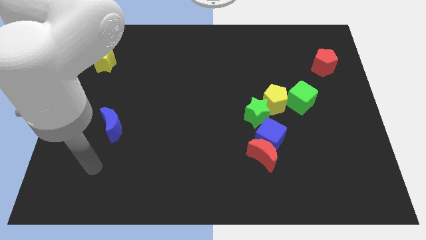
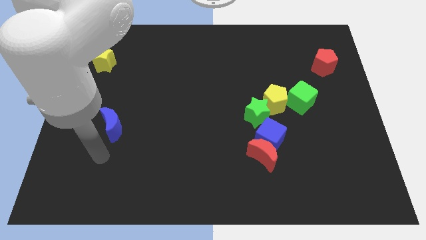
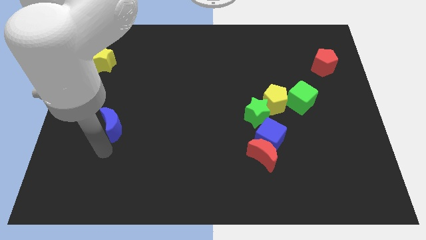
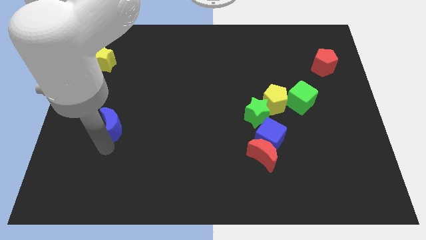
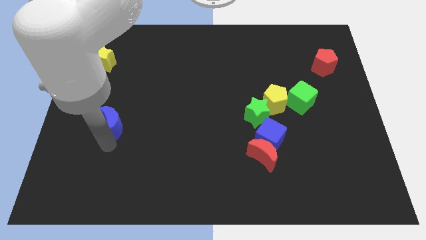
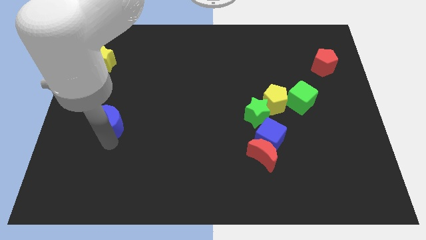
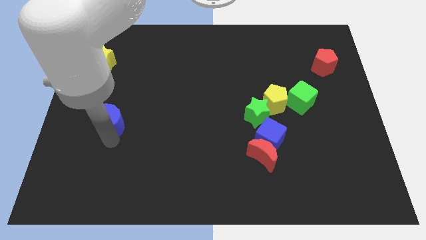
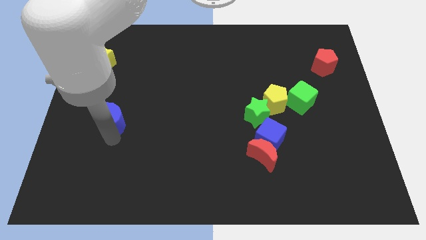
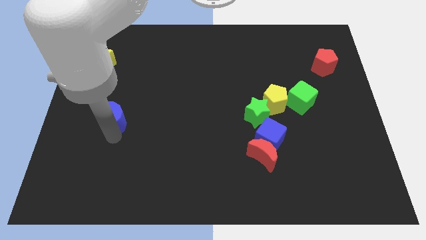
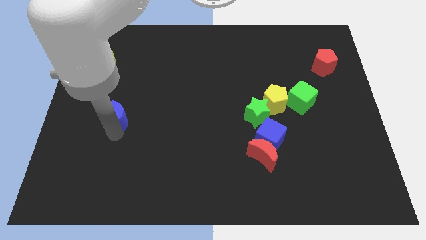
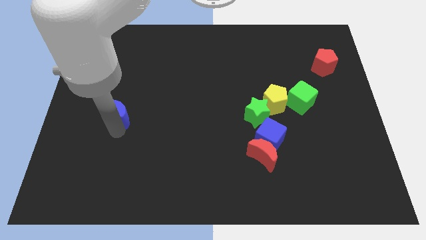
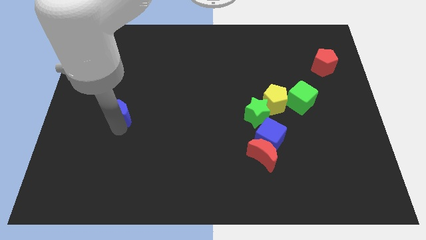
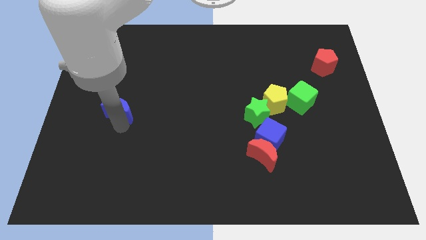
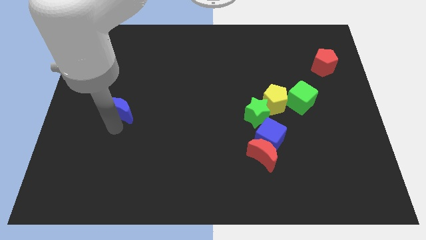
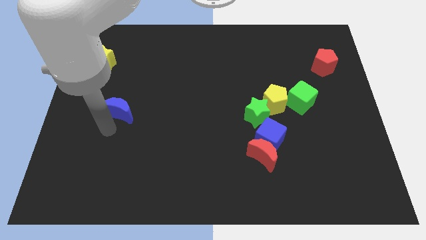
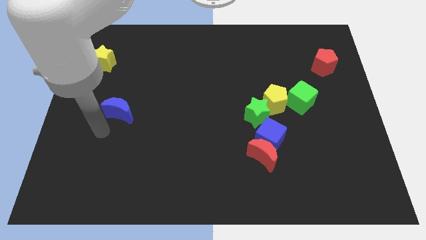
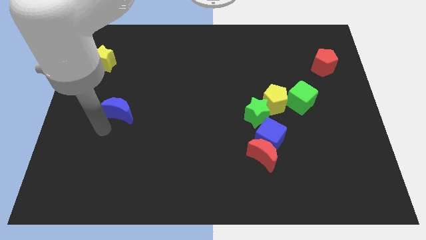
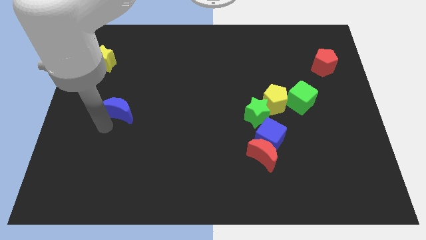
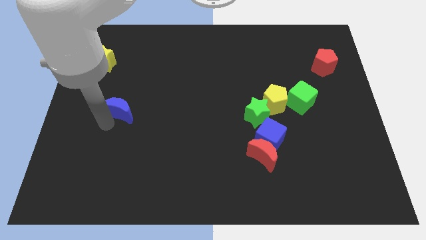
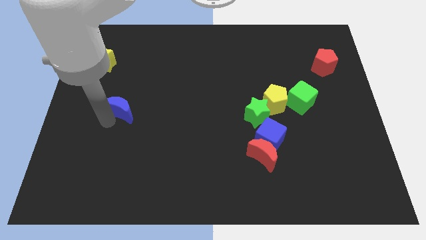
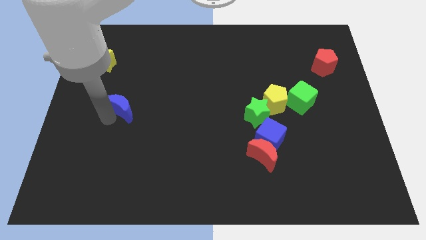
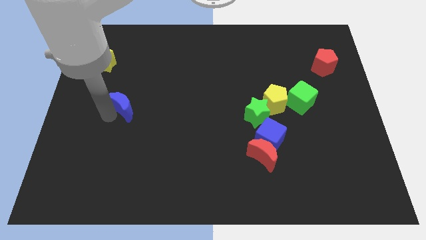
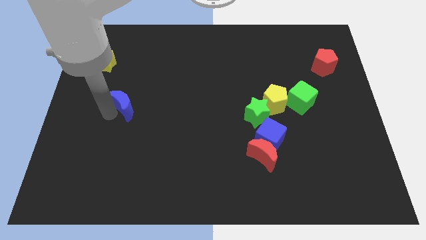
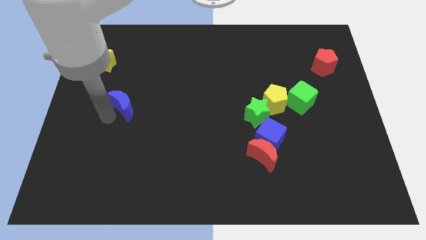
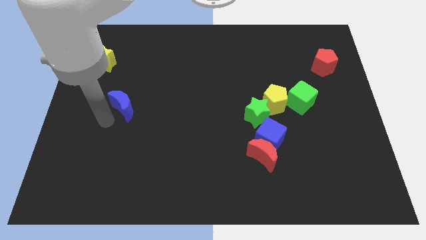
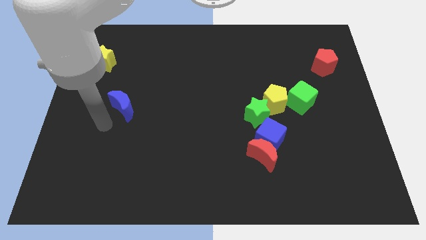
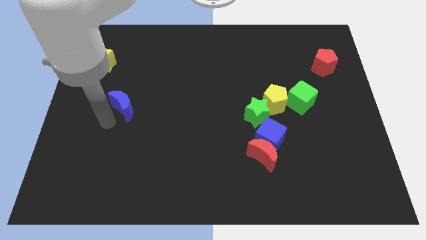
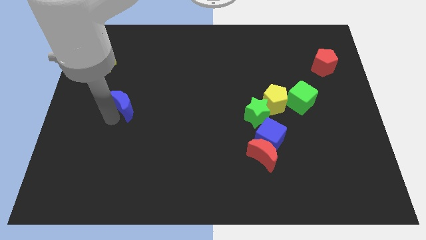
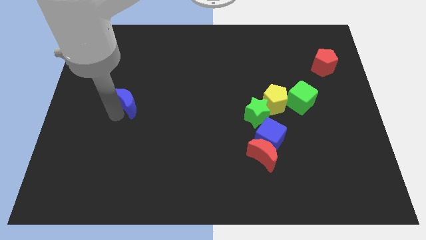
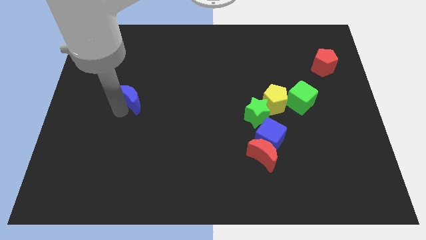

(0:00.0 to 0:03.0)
slightly push the blue moon up and to the right

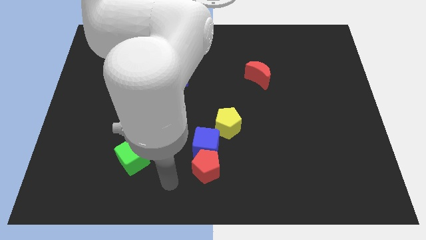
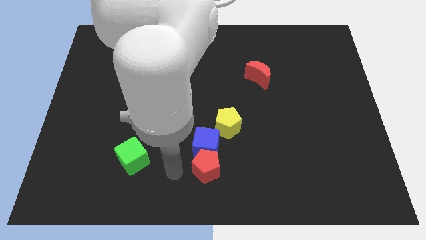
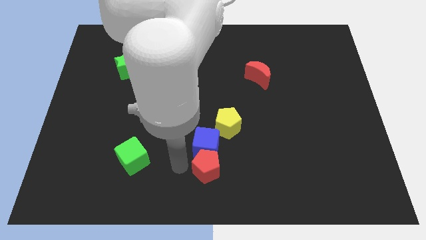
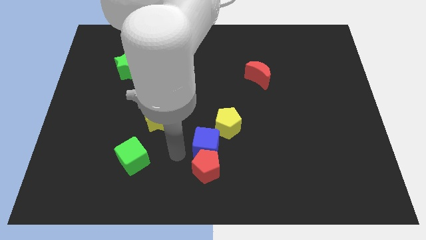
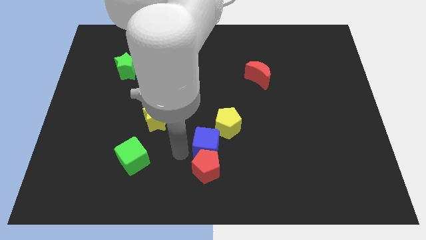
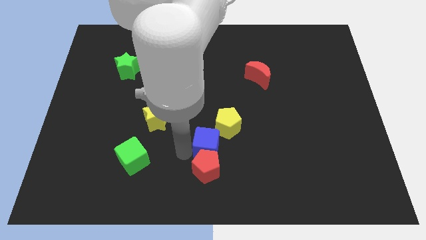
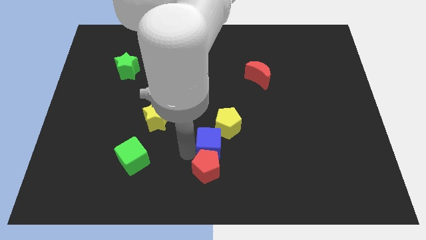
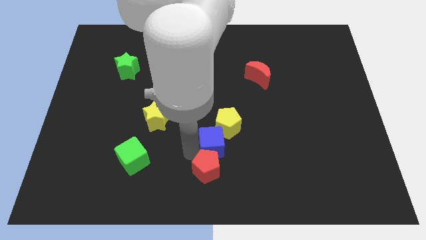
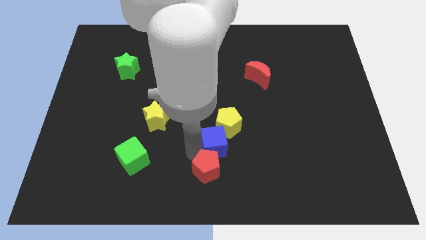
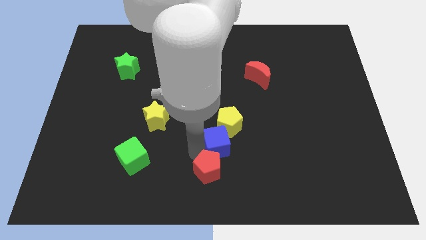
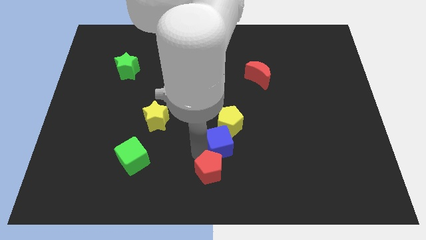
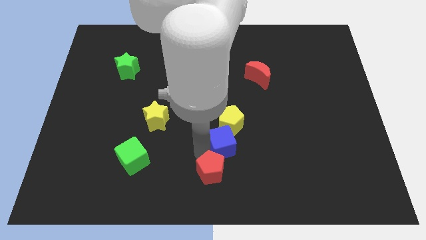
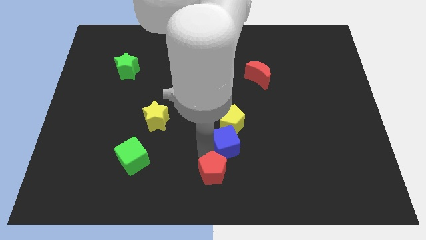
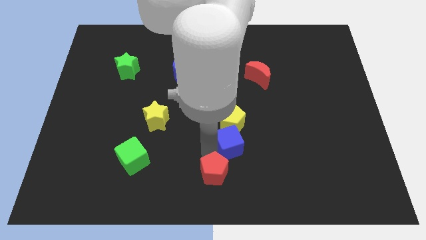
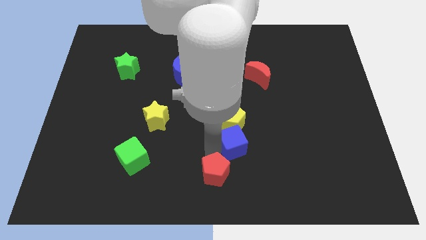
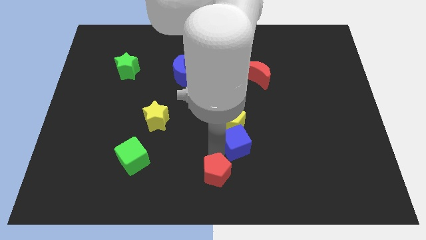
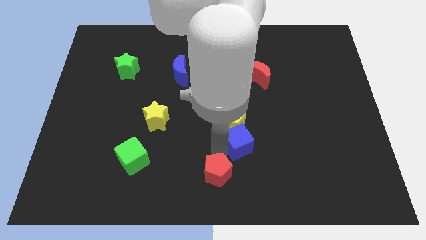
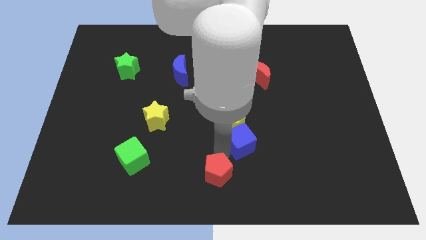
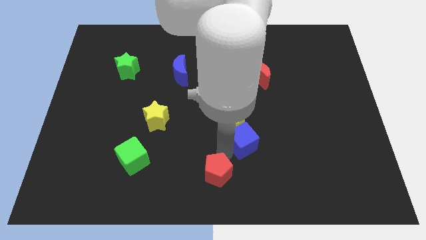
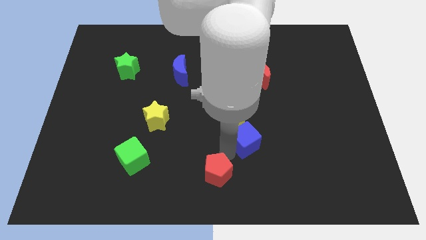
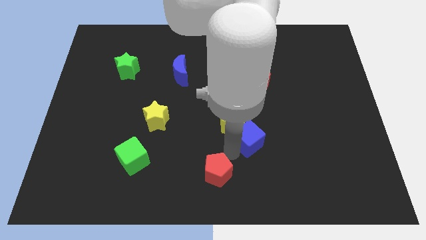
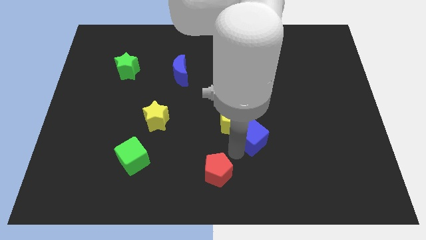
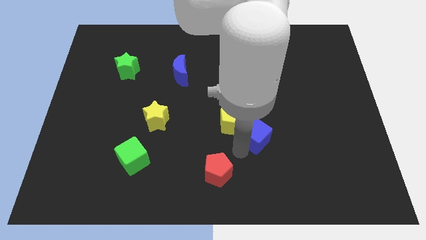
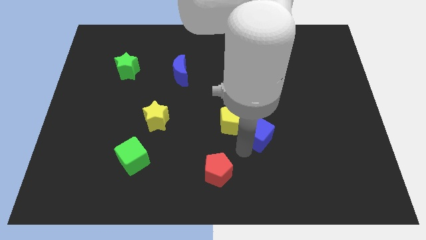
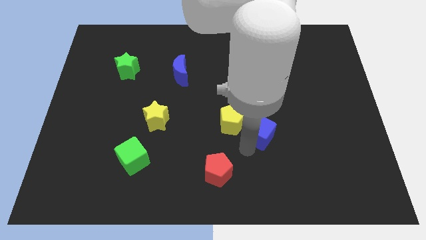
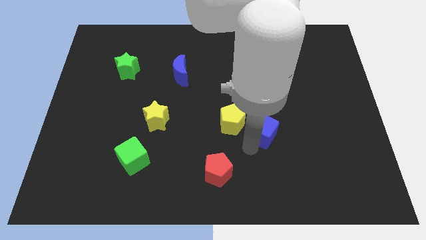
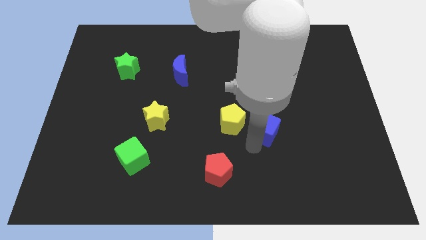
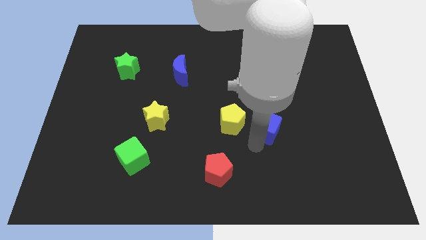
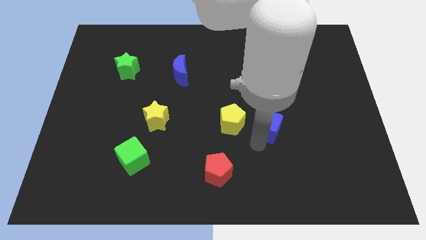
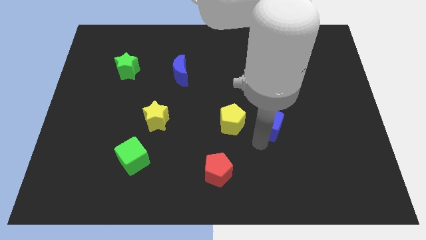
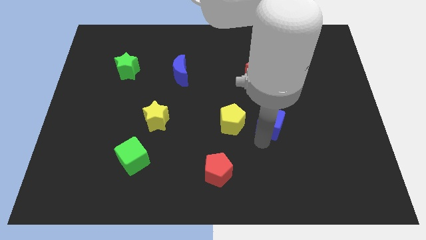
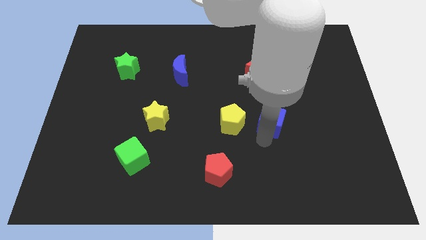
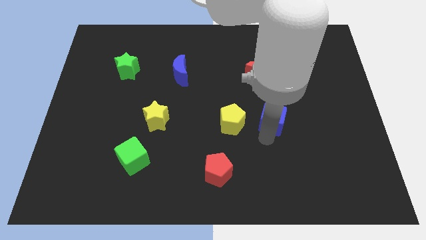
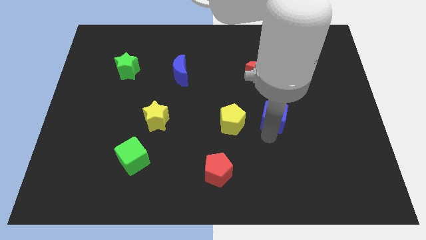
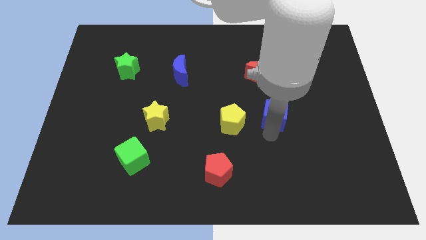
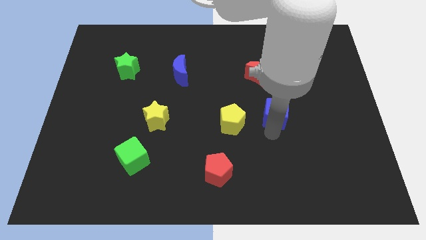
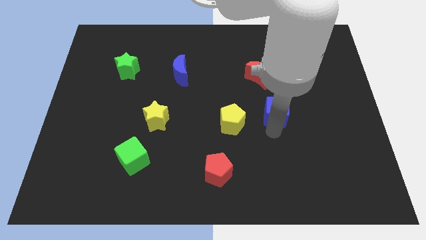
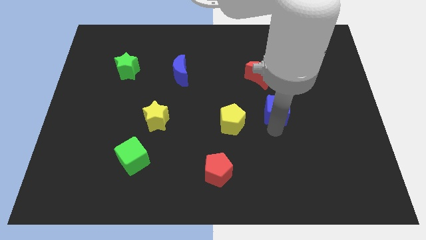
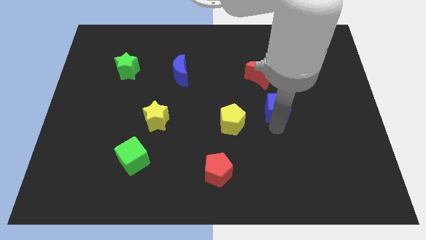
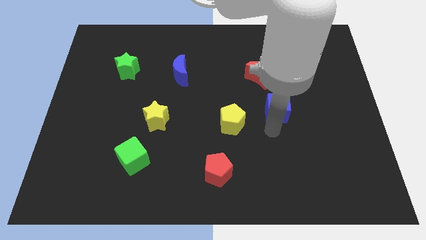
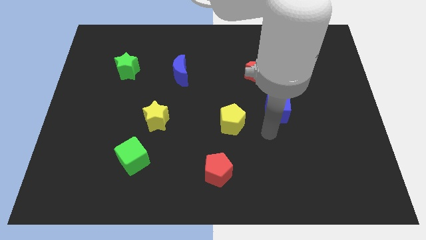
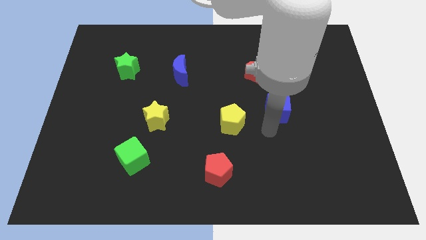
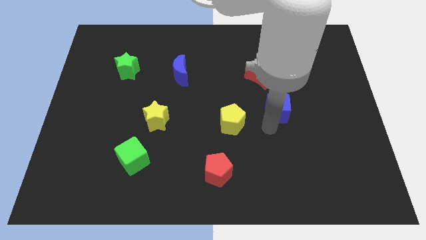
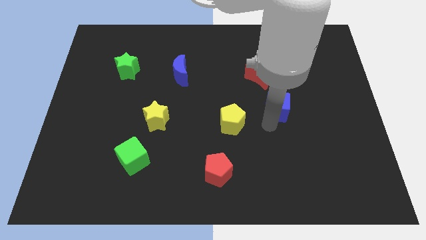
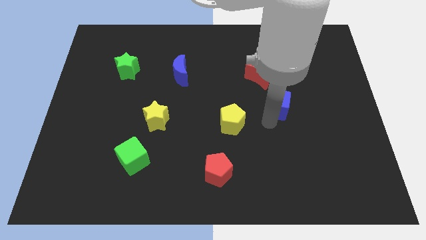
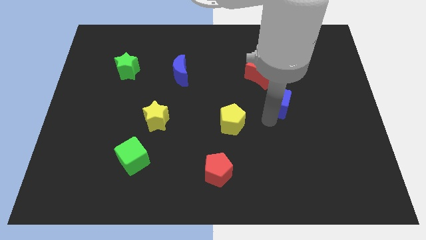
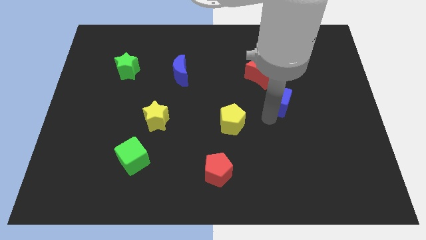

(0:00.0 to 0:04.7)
slide the blue cube upwards and to the right diagonally

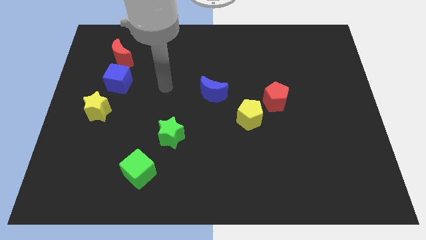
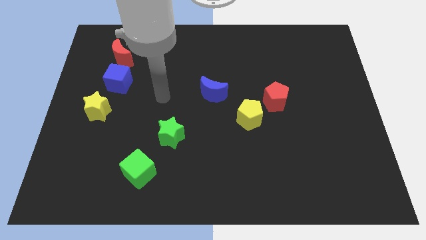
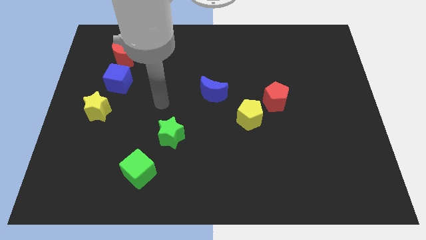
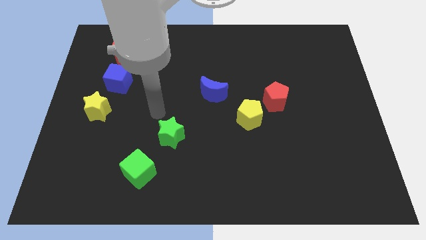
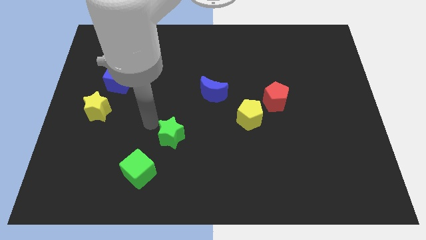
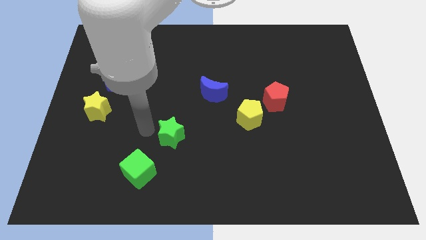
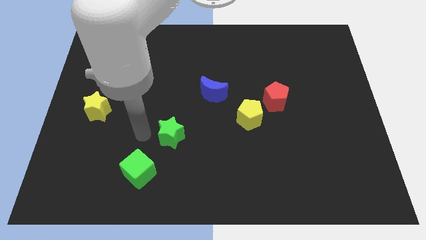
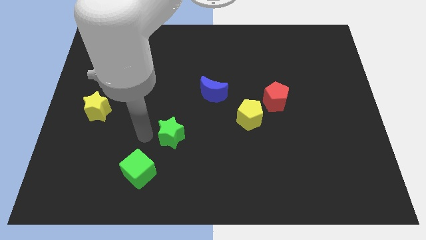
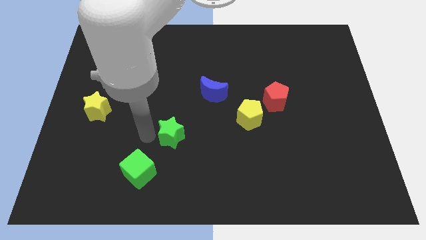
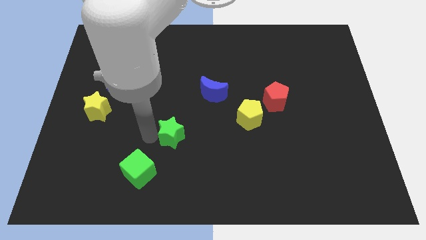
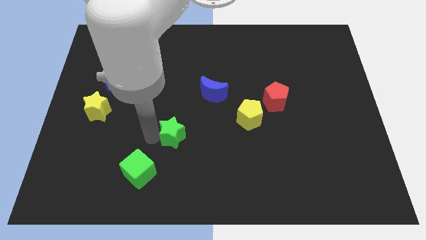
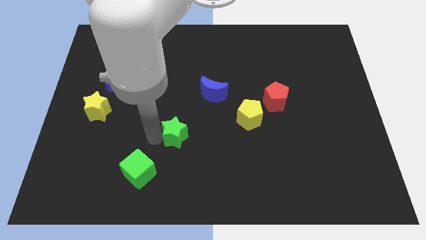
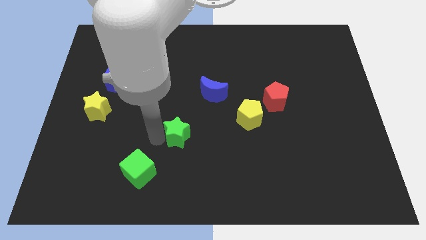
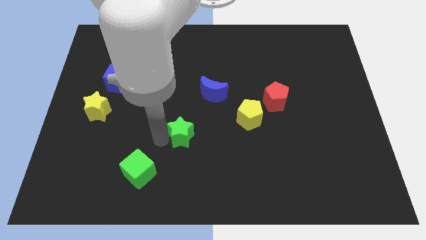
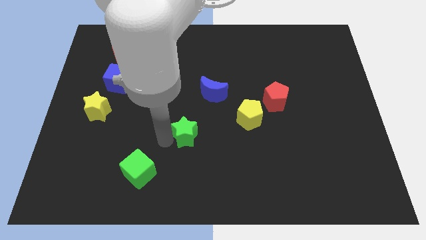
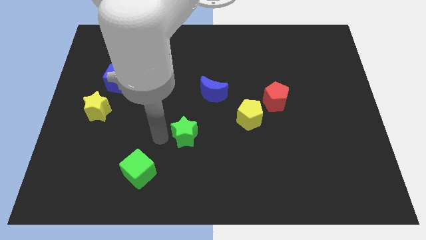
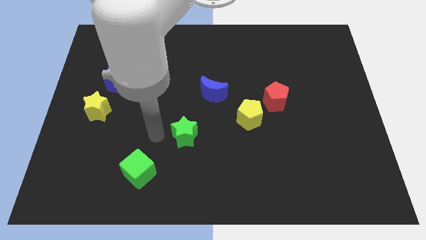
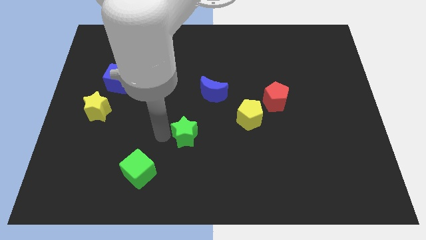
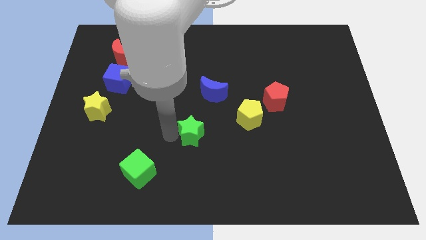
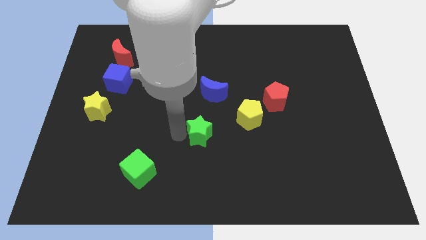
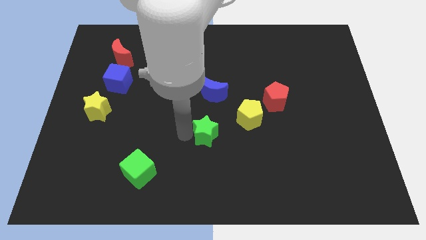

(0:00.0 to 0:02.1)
move the green star a little bit right
